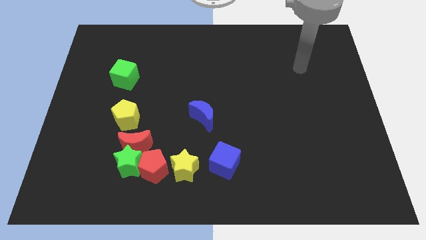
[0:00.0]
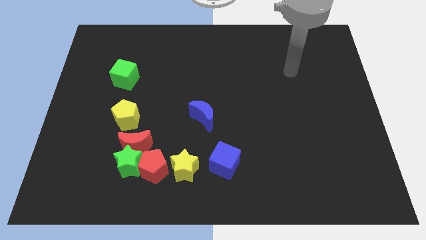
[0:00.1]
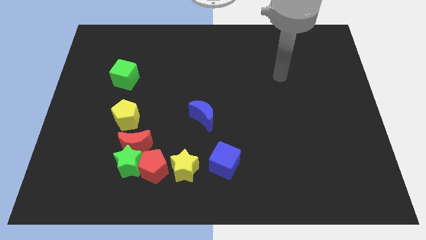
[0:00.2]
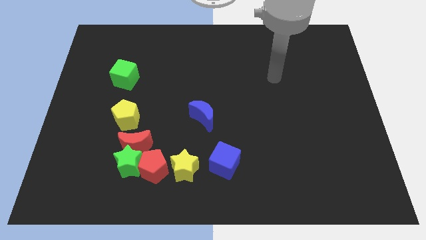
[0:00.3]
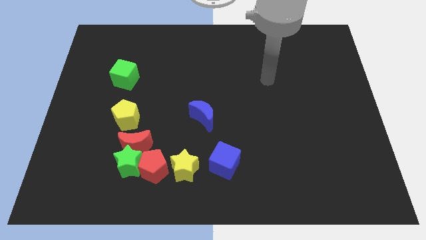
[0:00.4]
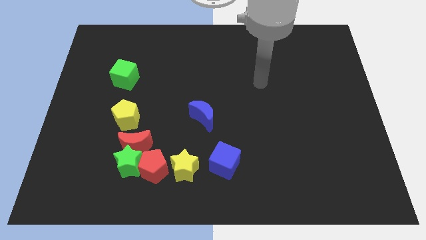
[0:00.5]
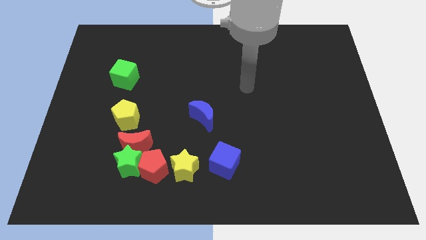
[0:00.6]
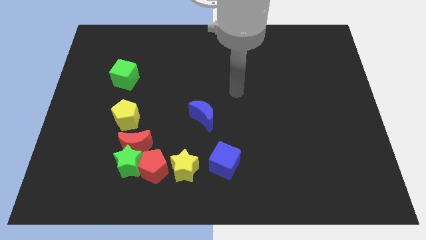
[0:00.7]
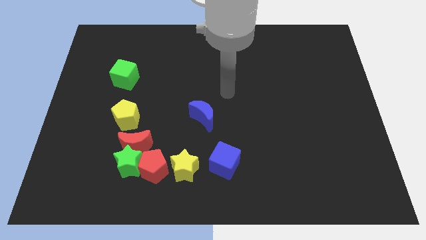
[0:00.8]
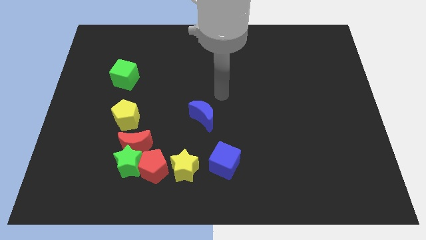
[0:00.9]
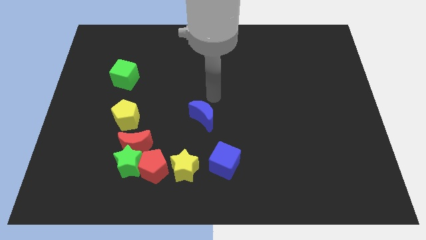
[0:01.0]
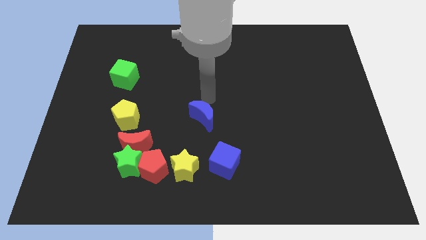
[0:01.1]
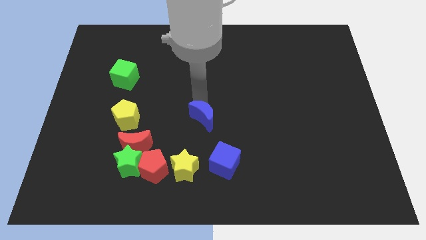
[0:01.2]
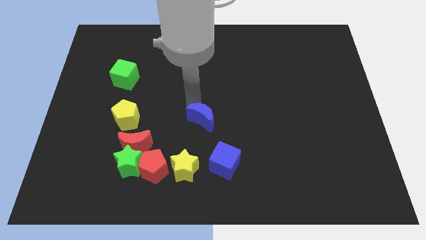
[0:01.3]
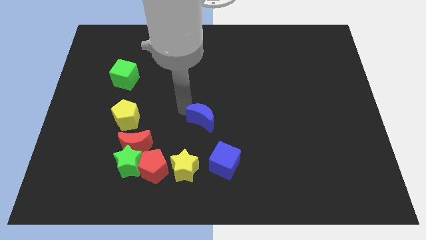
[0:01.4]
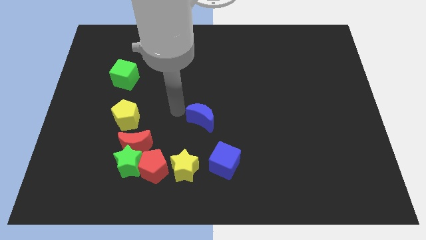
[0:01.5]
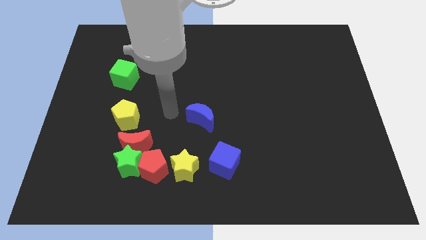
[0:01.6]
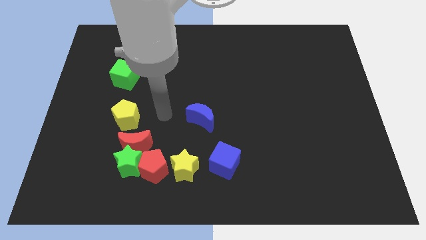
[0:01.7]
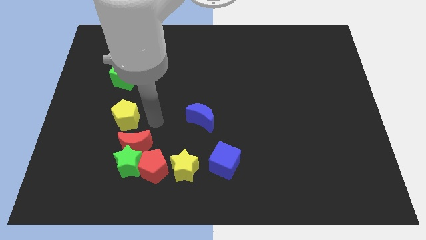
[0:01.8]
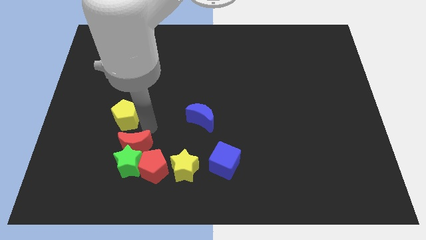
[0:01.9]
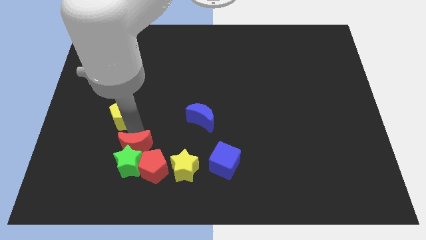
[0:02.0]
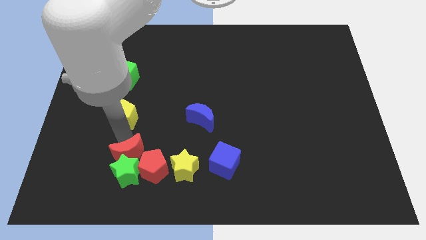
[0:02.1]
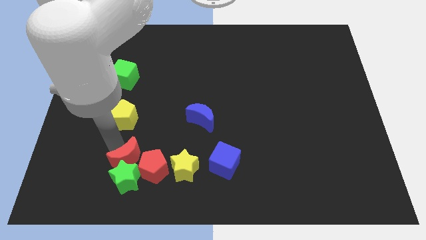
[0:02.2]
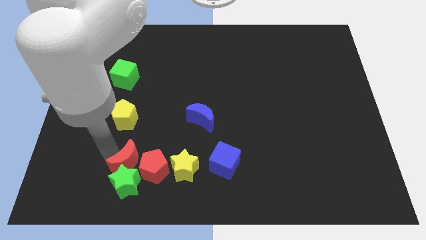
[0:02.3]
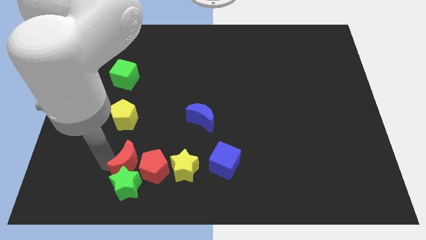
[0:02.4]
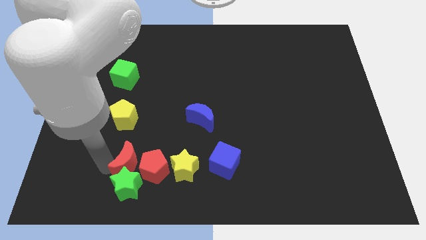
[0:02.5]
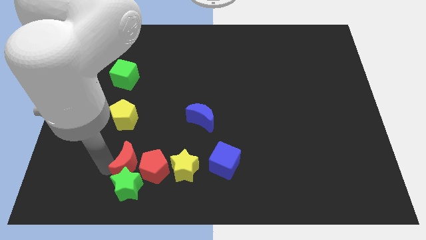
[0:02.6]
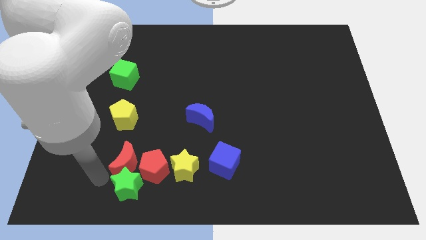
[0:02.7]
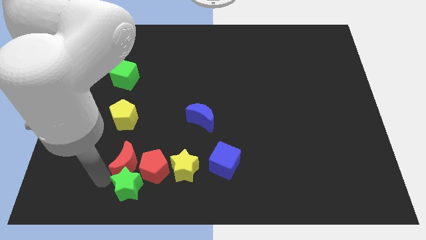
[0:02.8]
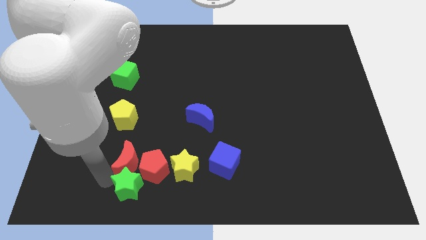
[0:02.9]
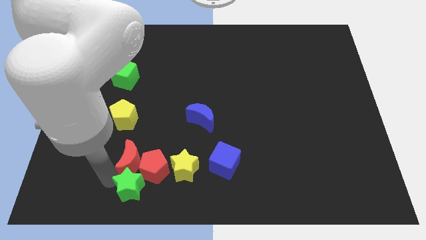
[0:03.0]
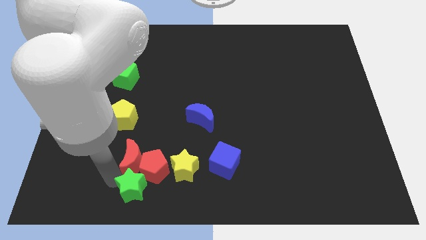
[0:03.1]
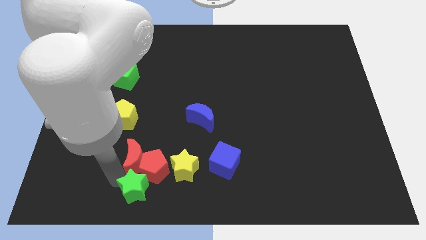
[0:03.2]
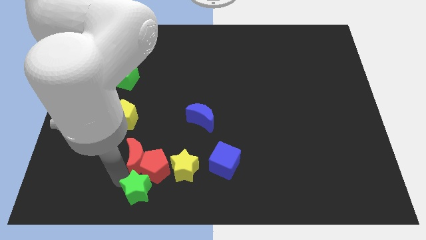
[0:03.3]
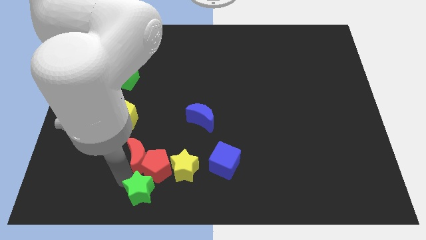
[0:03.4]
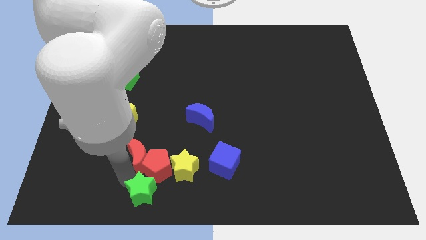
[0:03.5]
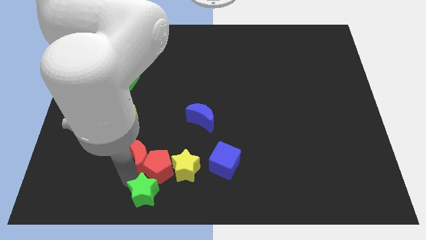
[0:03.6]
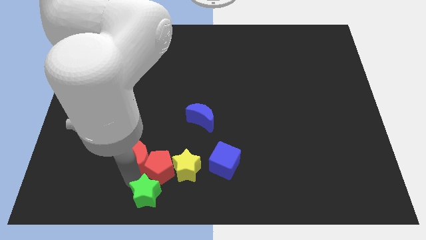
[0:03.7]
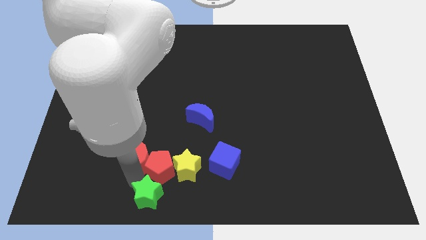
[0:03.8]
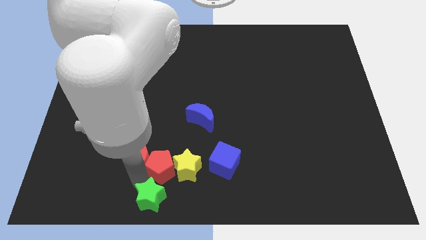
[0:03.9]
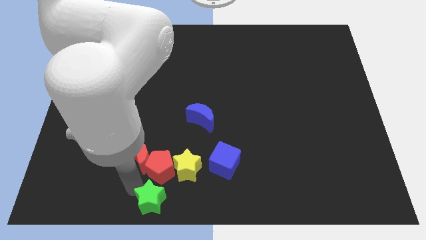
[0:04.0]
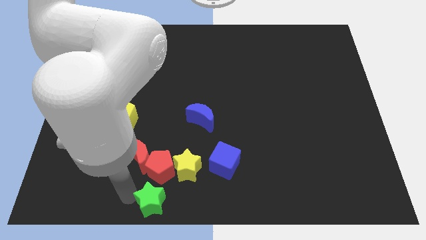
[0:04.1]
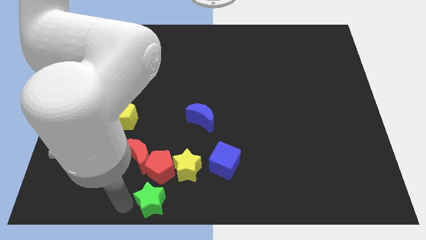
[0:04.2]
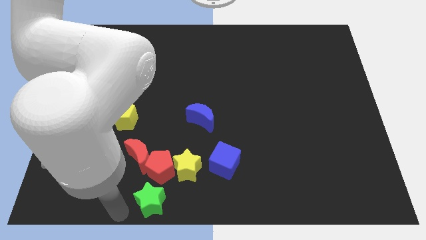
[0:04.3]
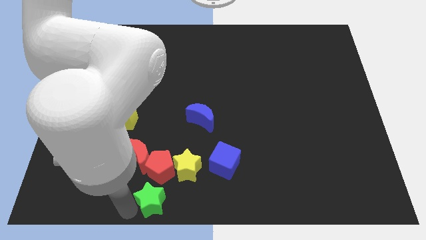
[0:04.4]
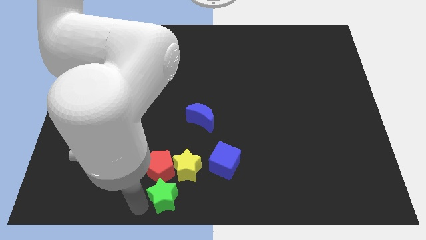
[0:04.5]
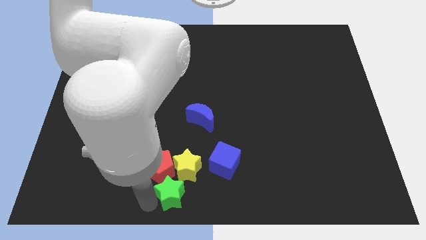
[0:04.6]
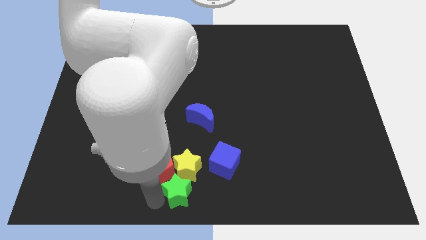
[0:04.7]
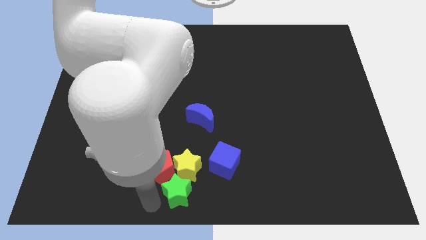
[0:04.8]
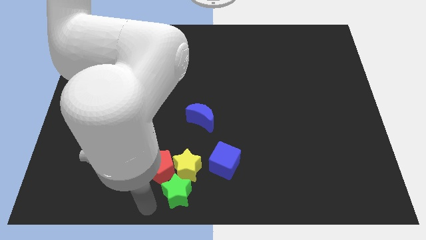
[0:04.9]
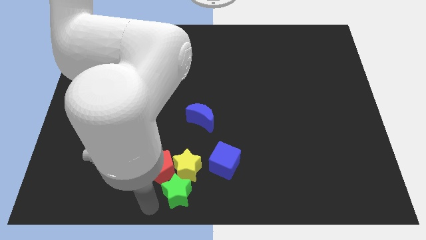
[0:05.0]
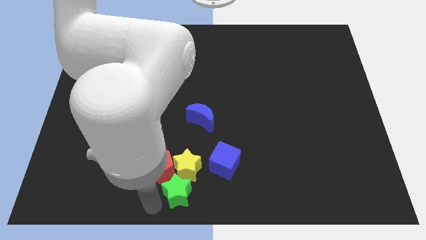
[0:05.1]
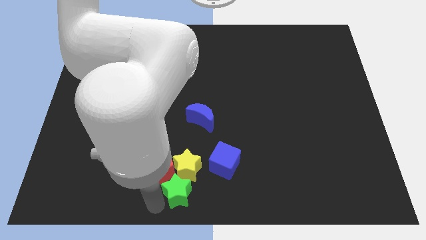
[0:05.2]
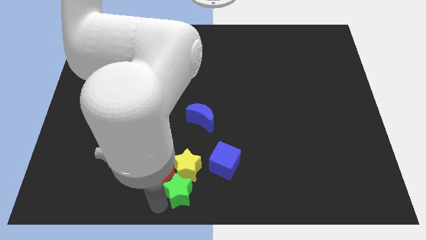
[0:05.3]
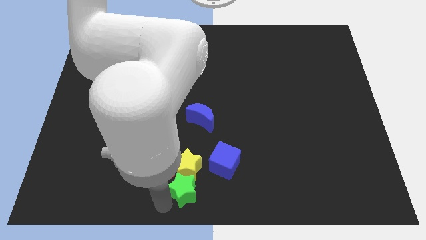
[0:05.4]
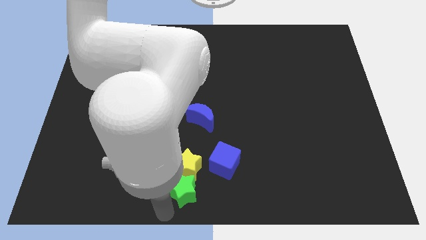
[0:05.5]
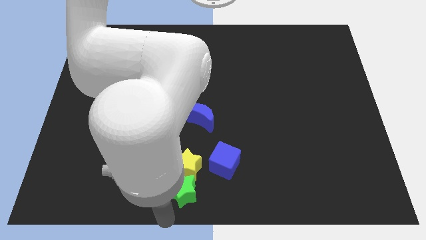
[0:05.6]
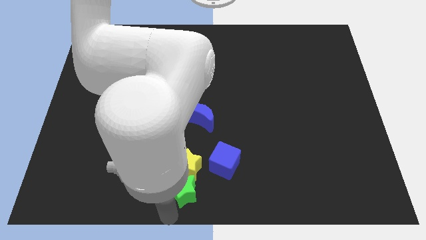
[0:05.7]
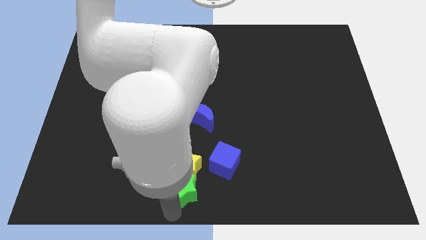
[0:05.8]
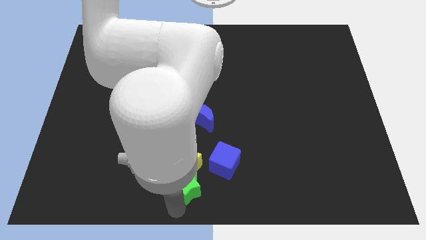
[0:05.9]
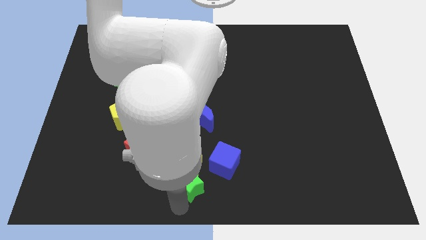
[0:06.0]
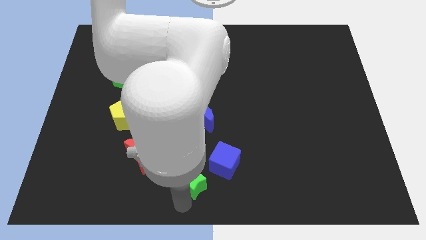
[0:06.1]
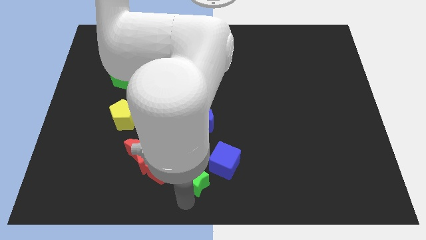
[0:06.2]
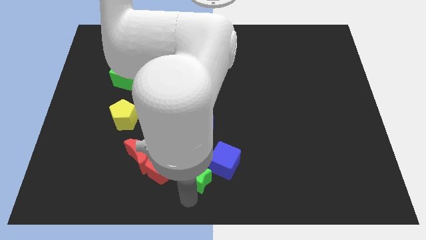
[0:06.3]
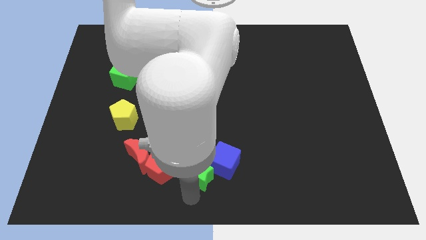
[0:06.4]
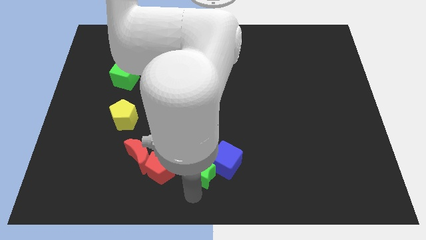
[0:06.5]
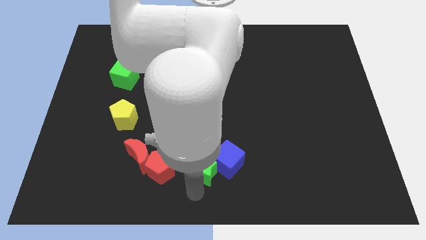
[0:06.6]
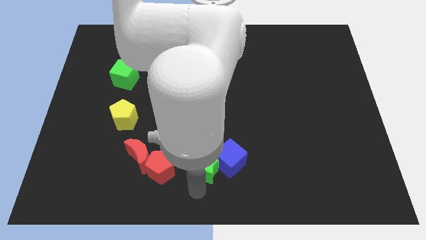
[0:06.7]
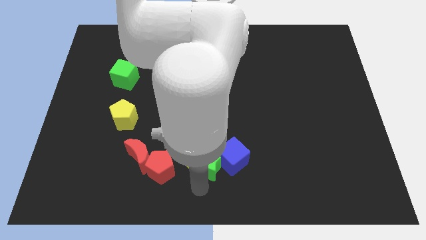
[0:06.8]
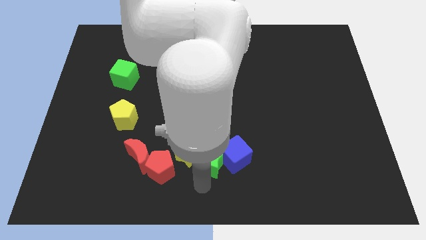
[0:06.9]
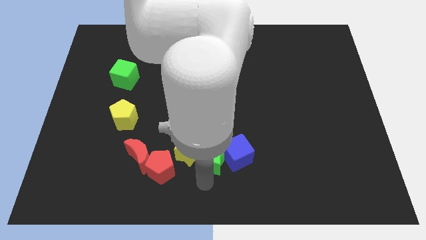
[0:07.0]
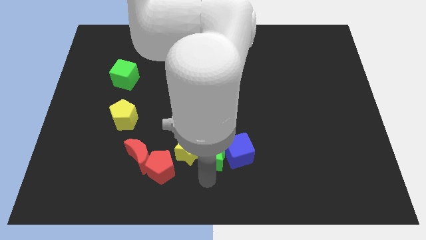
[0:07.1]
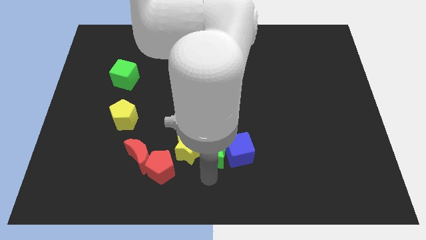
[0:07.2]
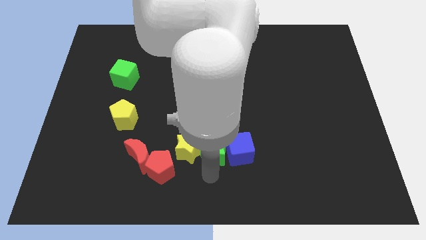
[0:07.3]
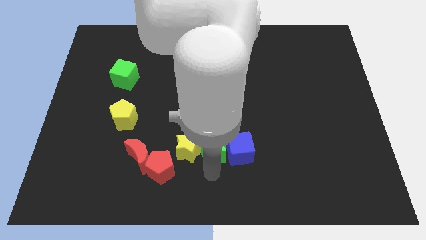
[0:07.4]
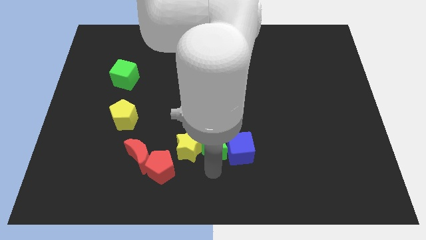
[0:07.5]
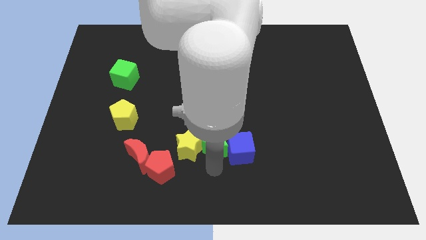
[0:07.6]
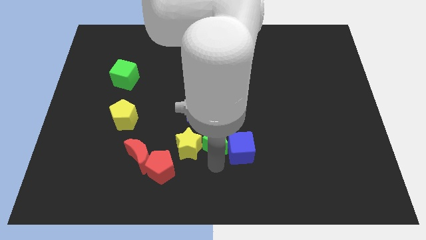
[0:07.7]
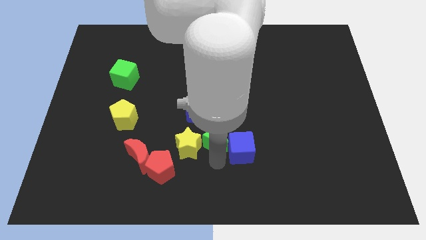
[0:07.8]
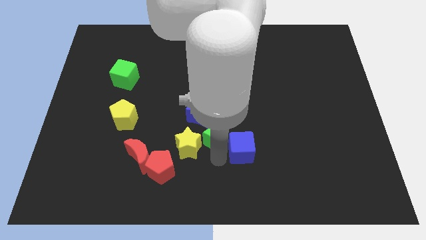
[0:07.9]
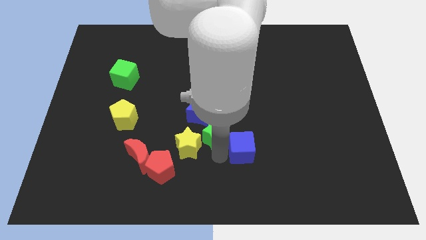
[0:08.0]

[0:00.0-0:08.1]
slide the green star to the blue moon
